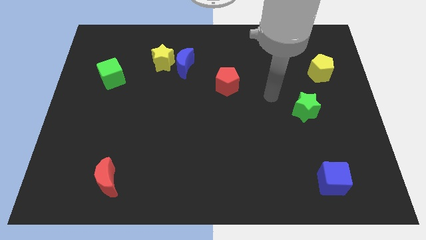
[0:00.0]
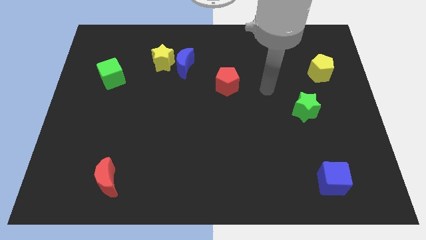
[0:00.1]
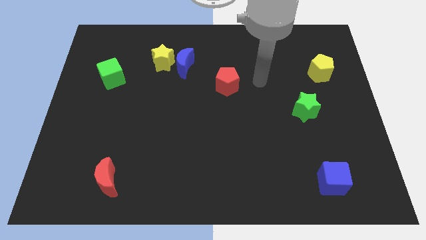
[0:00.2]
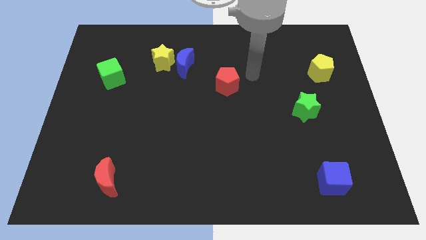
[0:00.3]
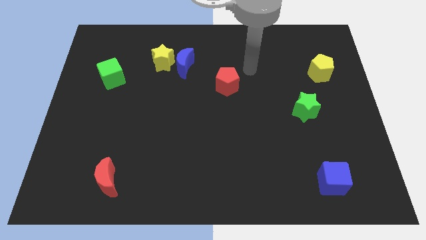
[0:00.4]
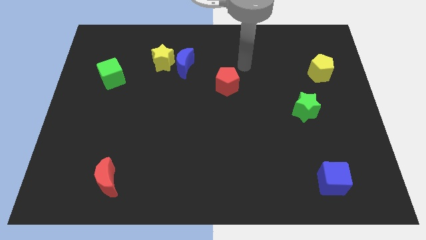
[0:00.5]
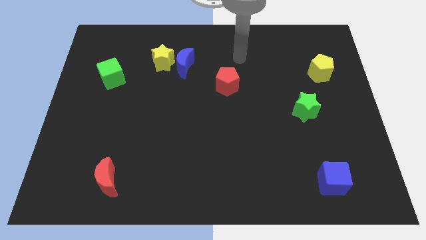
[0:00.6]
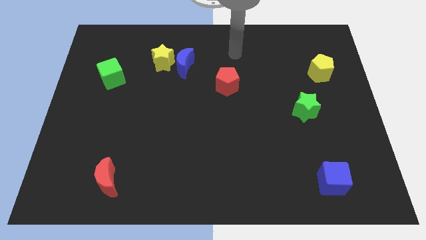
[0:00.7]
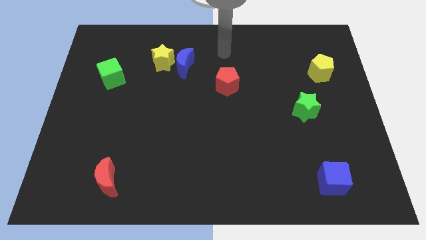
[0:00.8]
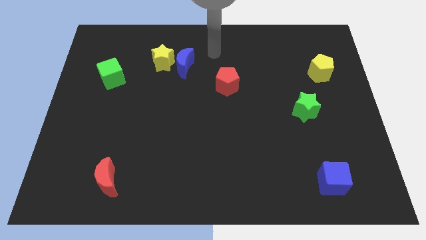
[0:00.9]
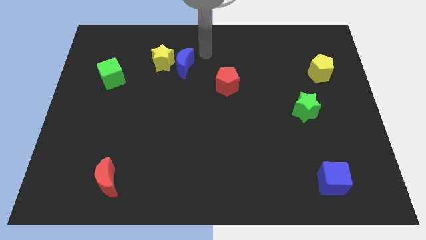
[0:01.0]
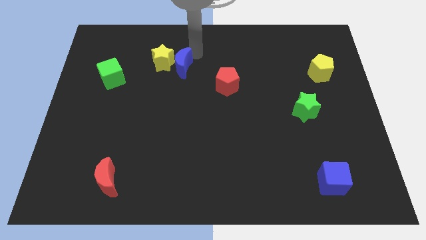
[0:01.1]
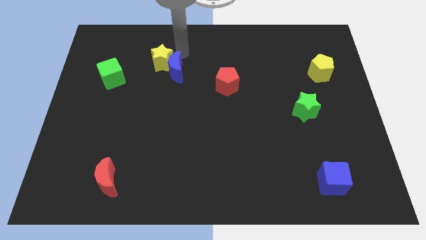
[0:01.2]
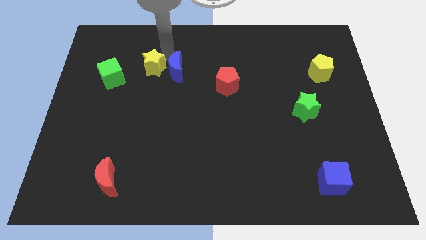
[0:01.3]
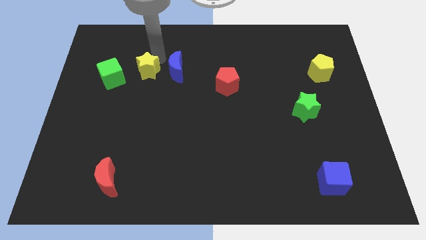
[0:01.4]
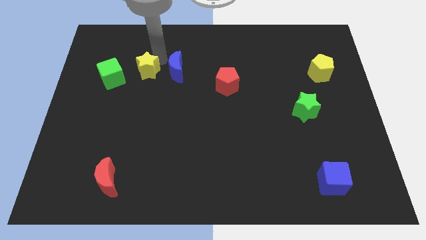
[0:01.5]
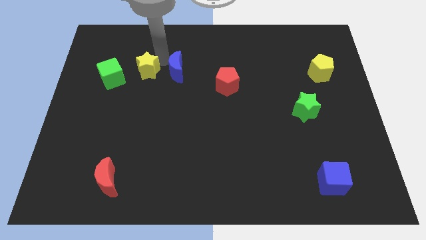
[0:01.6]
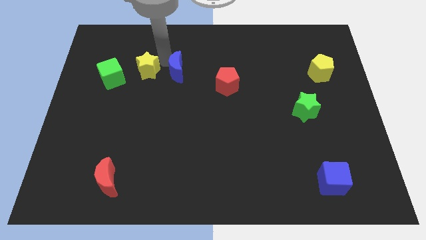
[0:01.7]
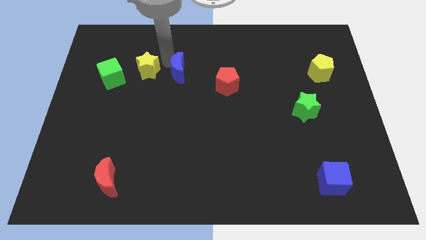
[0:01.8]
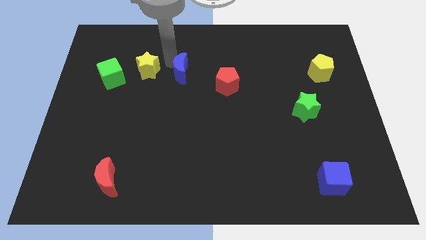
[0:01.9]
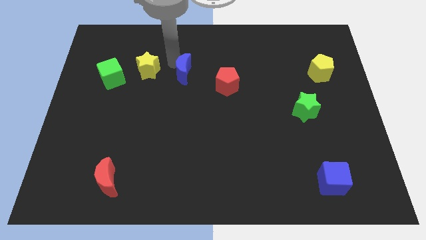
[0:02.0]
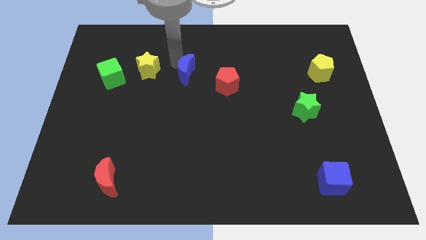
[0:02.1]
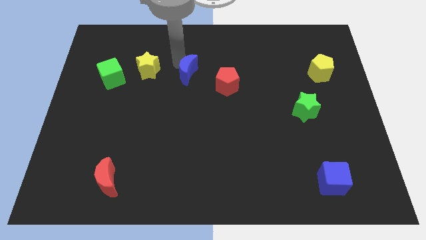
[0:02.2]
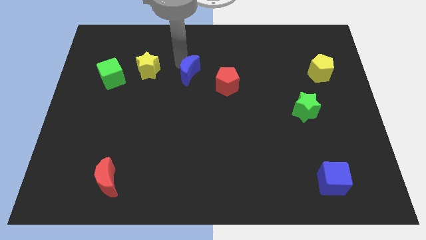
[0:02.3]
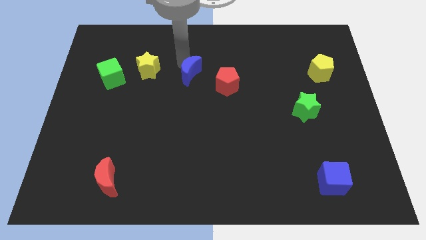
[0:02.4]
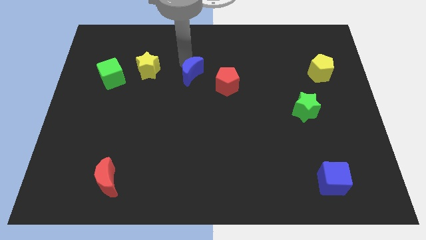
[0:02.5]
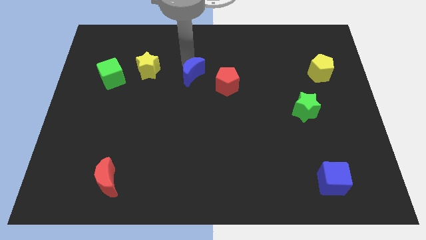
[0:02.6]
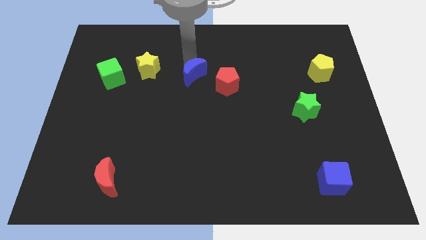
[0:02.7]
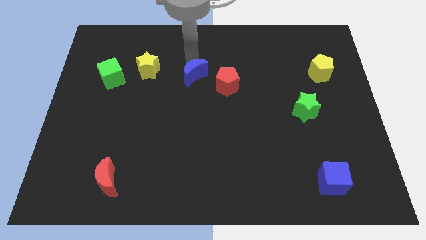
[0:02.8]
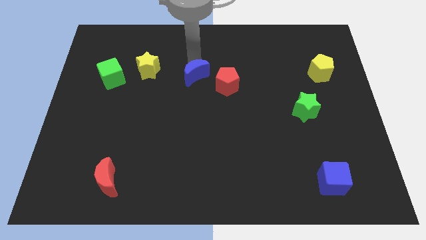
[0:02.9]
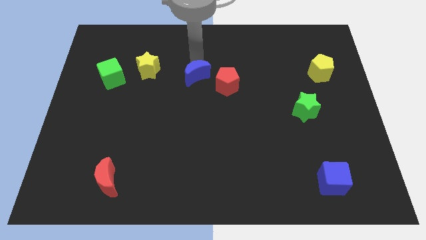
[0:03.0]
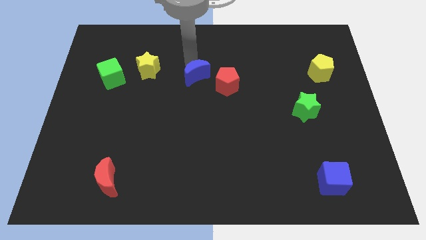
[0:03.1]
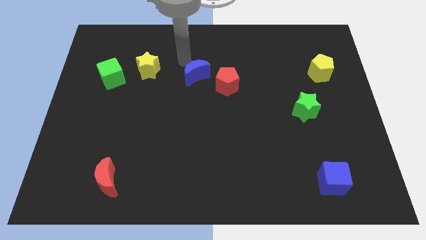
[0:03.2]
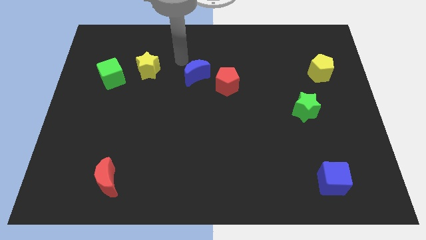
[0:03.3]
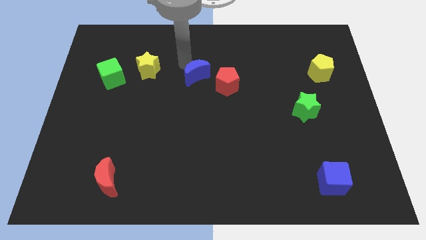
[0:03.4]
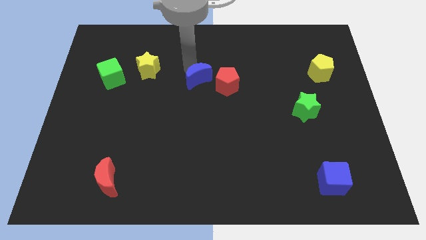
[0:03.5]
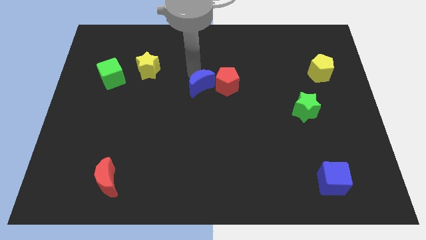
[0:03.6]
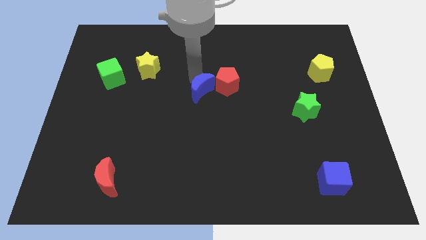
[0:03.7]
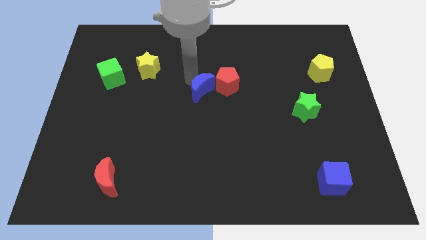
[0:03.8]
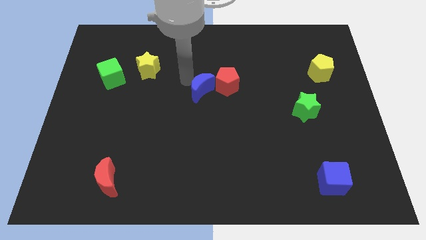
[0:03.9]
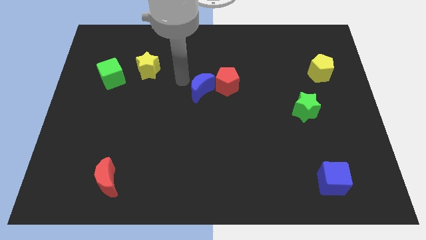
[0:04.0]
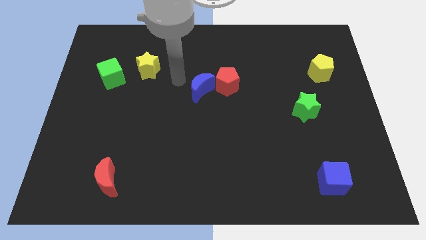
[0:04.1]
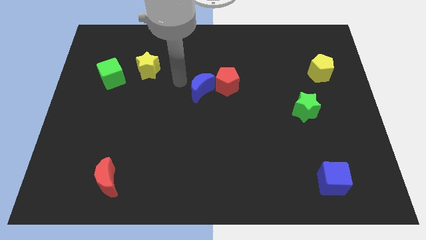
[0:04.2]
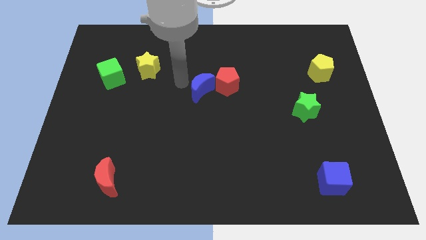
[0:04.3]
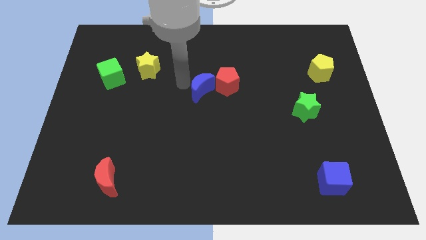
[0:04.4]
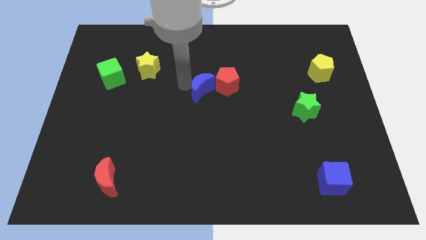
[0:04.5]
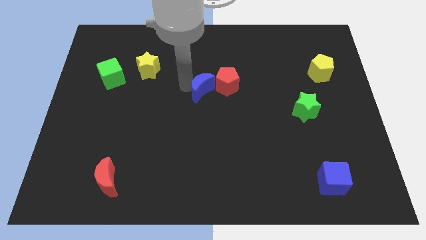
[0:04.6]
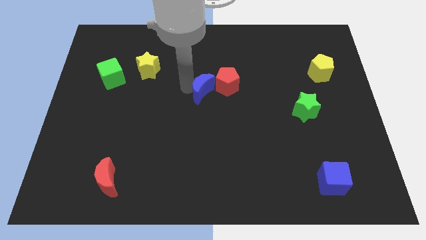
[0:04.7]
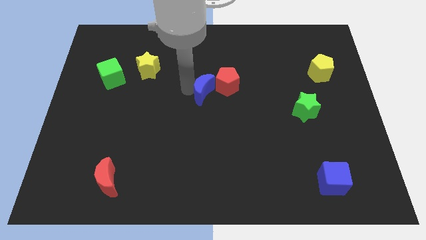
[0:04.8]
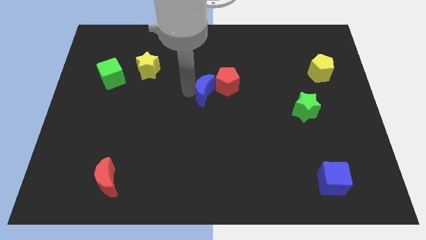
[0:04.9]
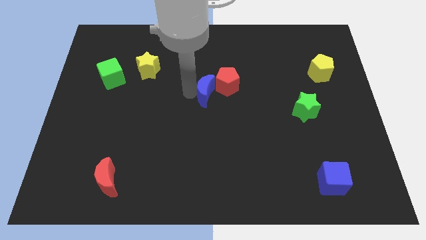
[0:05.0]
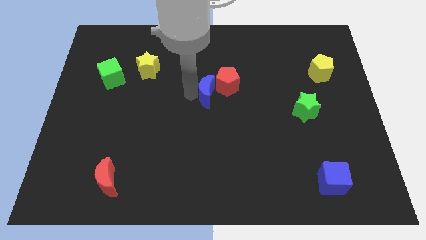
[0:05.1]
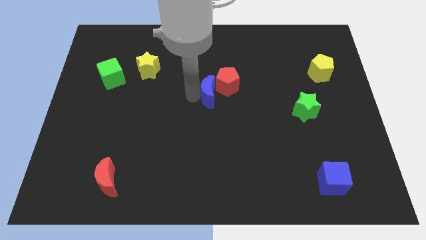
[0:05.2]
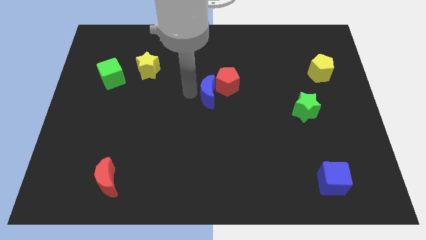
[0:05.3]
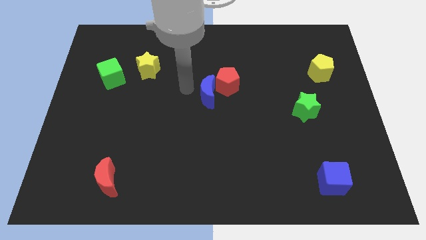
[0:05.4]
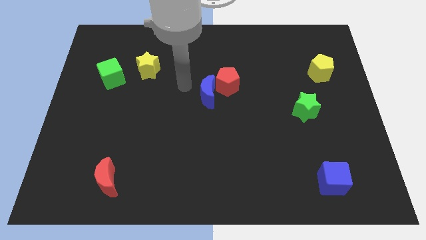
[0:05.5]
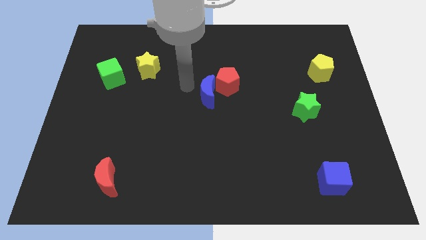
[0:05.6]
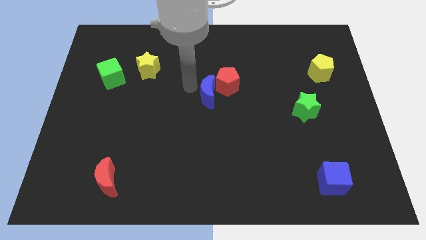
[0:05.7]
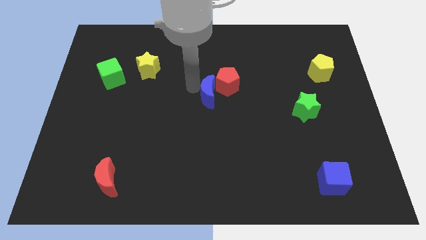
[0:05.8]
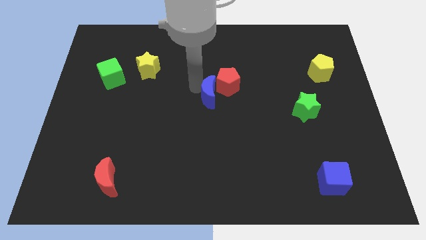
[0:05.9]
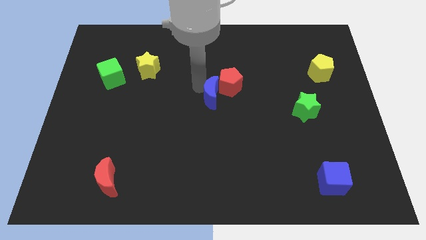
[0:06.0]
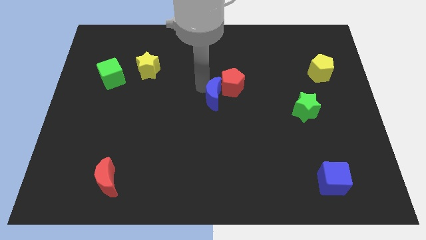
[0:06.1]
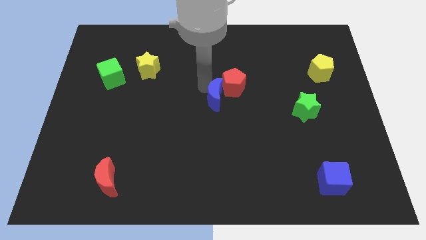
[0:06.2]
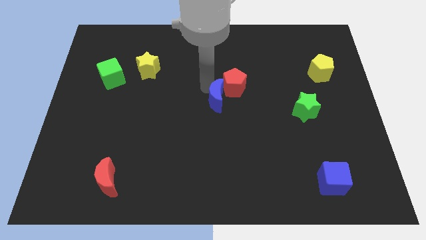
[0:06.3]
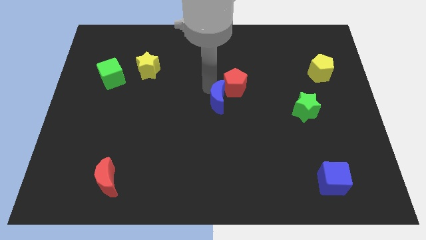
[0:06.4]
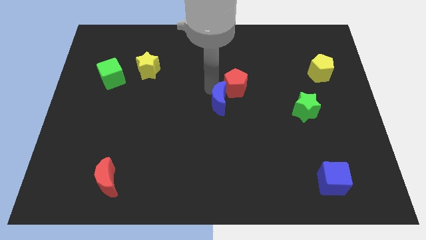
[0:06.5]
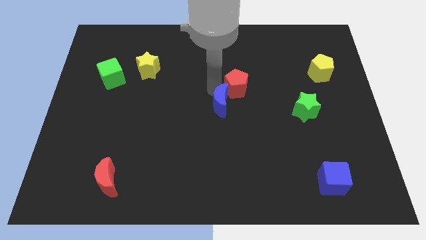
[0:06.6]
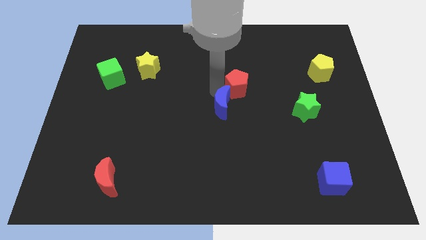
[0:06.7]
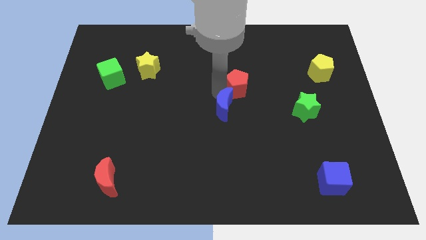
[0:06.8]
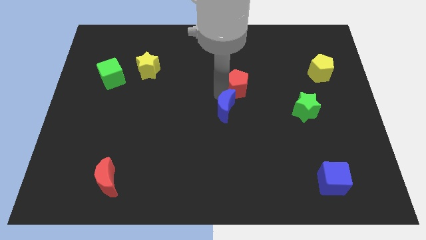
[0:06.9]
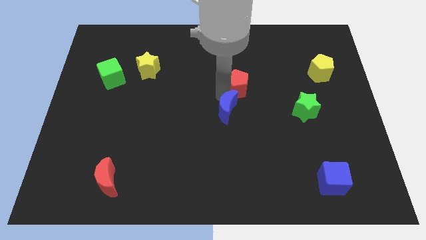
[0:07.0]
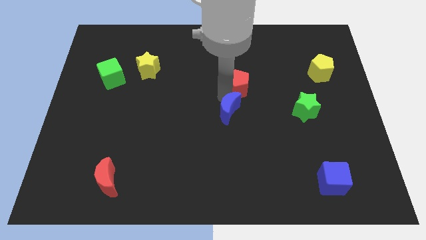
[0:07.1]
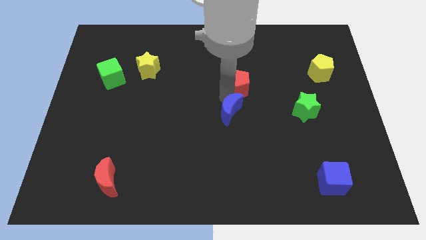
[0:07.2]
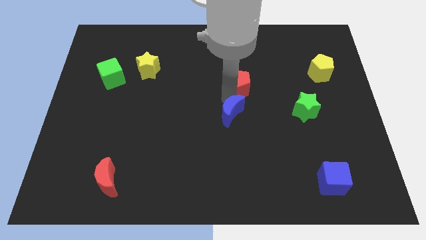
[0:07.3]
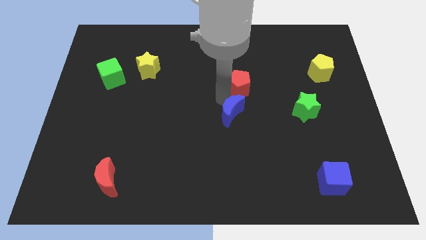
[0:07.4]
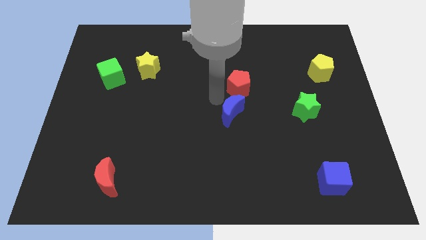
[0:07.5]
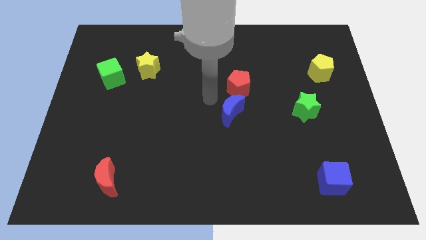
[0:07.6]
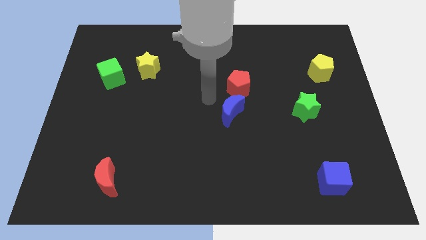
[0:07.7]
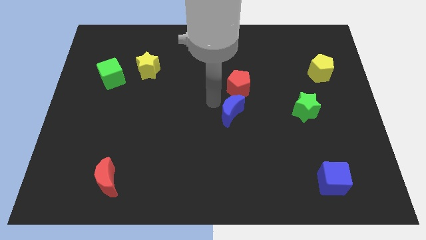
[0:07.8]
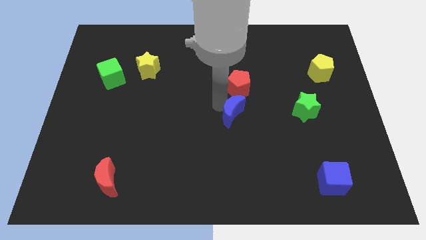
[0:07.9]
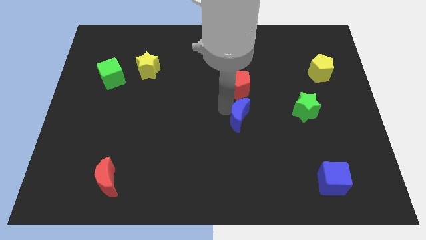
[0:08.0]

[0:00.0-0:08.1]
slide the blue moon down and then right
